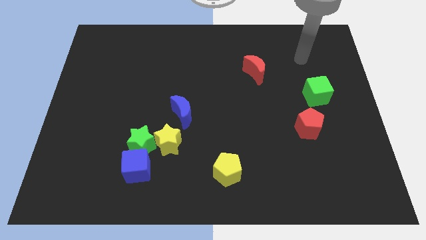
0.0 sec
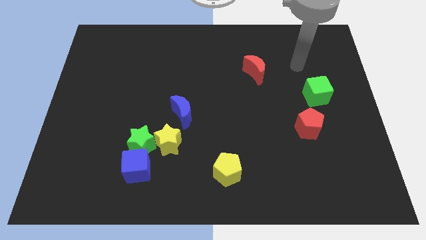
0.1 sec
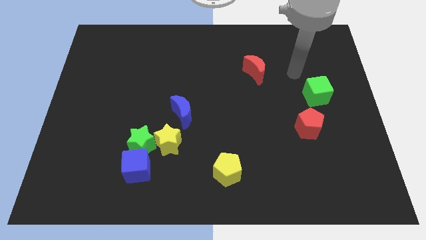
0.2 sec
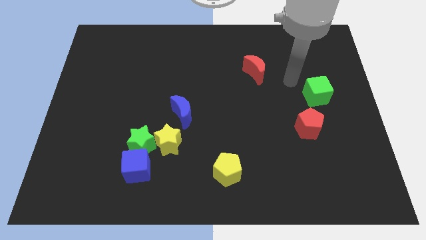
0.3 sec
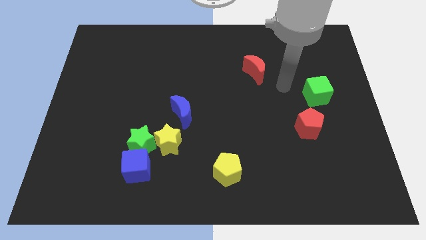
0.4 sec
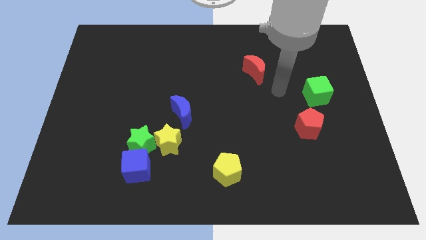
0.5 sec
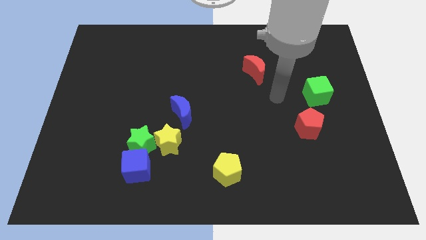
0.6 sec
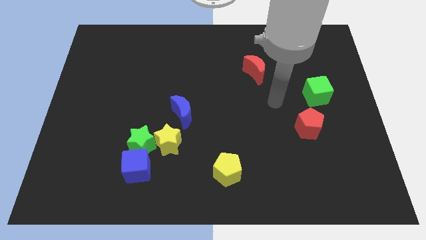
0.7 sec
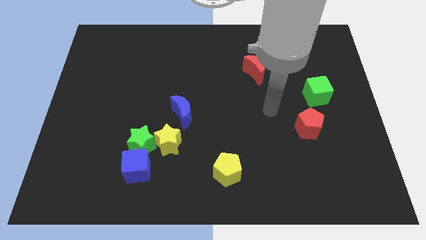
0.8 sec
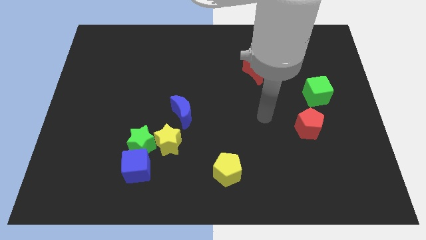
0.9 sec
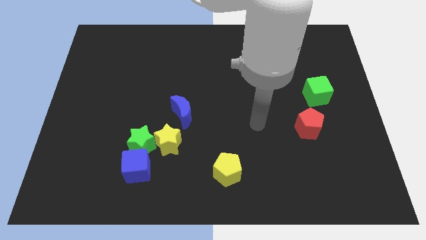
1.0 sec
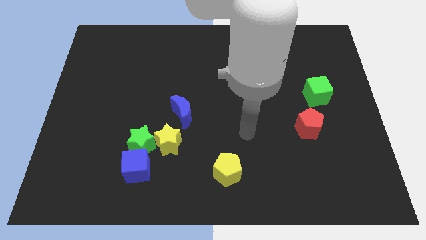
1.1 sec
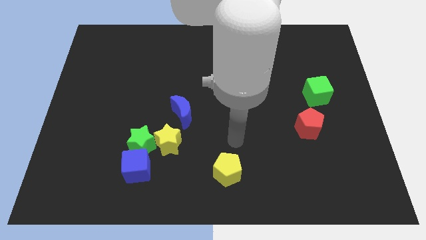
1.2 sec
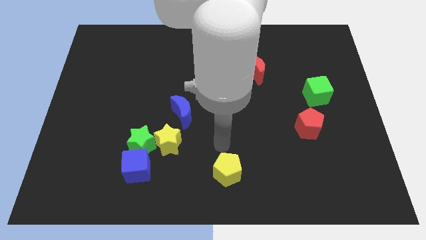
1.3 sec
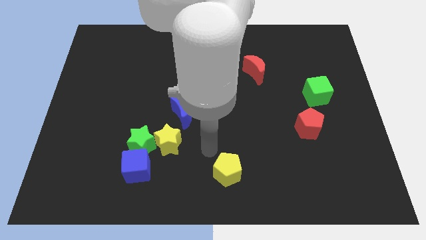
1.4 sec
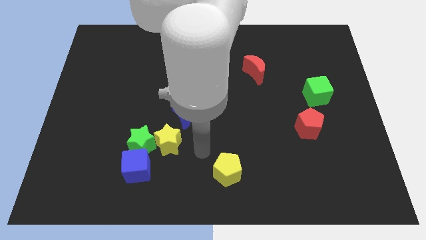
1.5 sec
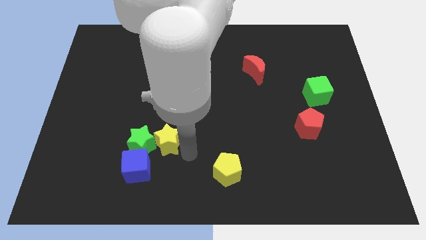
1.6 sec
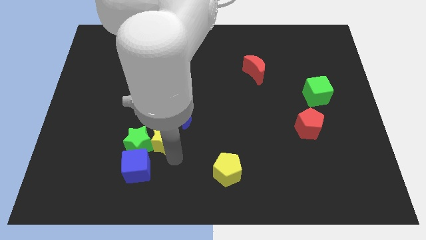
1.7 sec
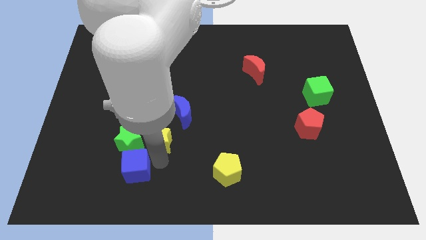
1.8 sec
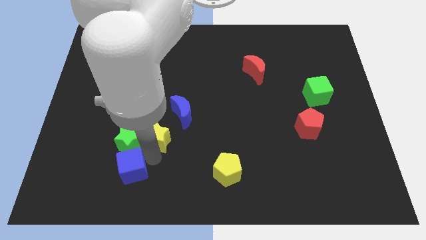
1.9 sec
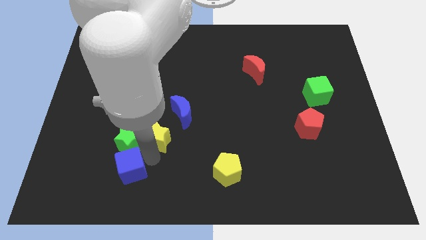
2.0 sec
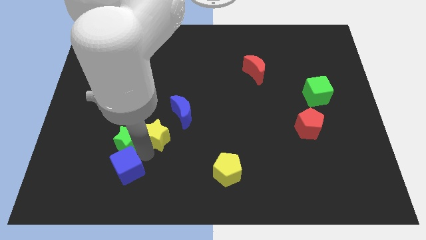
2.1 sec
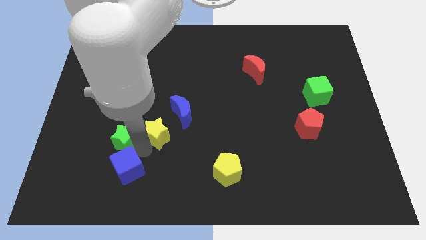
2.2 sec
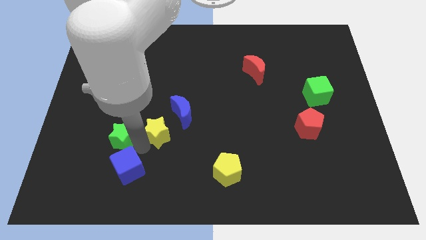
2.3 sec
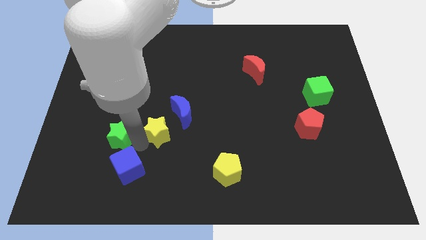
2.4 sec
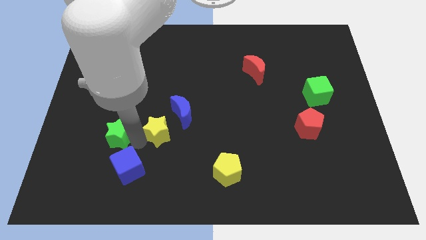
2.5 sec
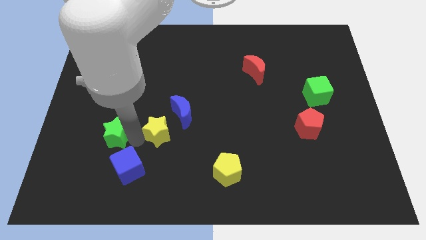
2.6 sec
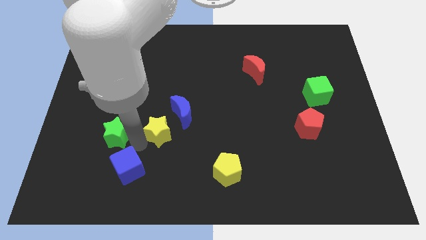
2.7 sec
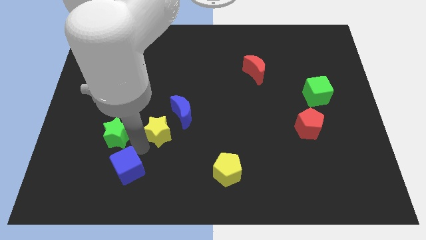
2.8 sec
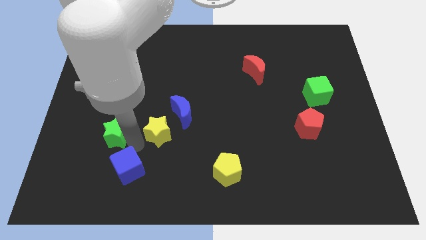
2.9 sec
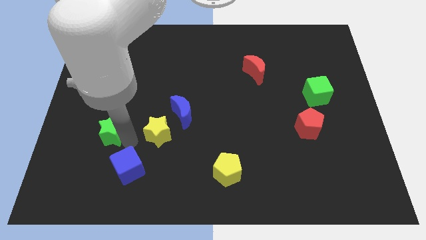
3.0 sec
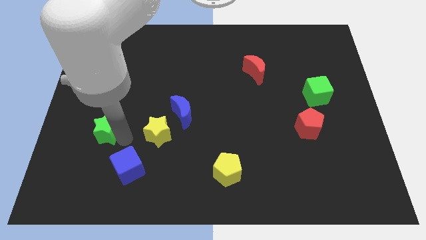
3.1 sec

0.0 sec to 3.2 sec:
pull the green star apart from the yellow star and blue cube

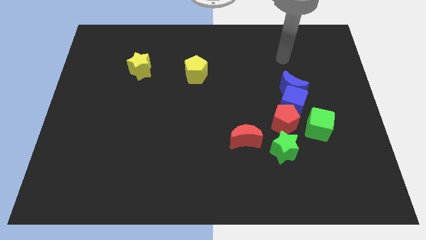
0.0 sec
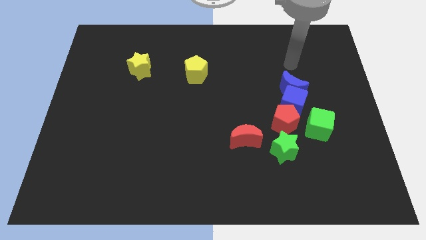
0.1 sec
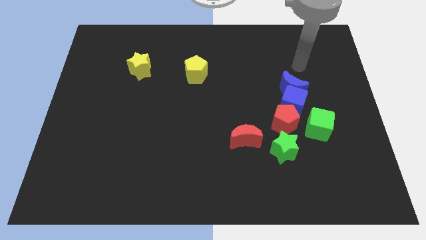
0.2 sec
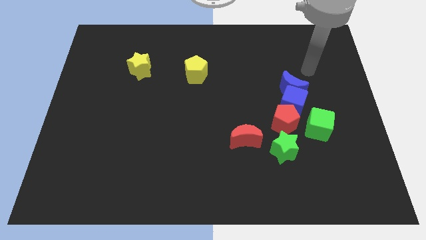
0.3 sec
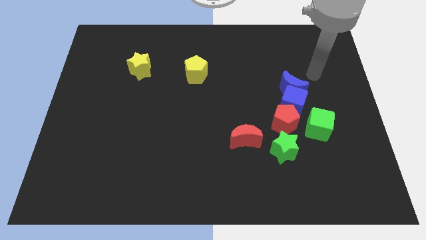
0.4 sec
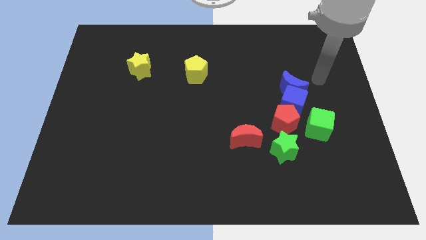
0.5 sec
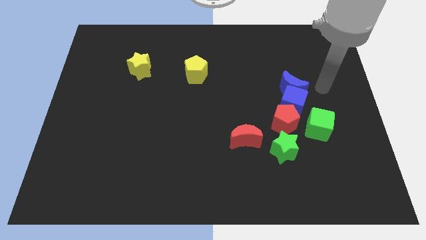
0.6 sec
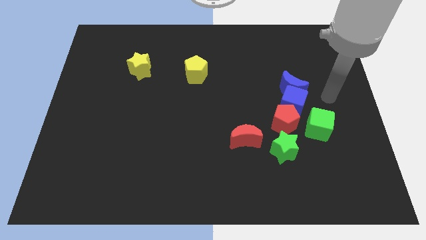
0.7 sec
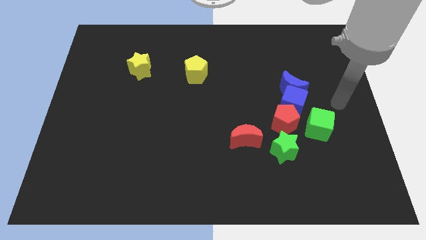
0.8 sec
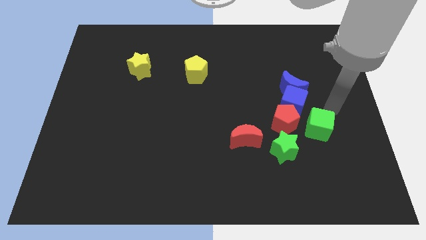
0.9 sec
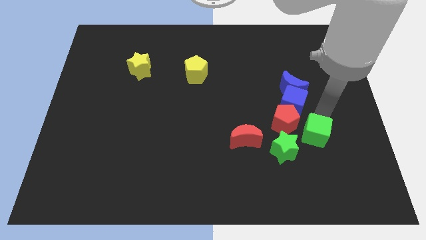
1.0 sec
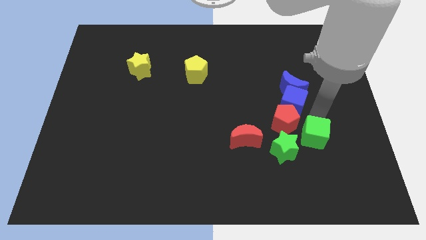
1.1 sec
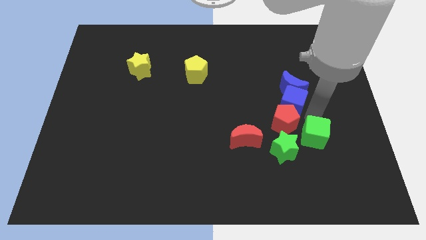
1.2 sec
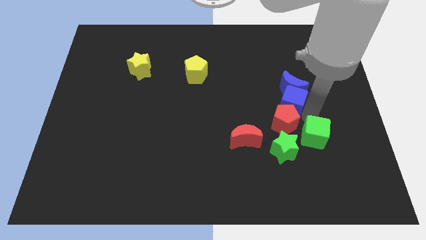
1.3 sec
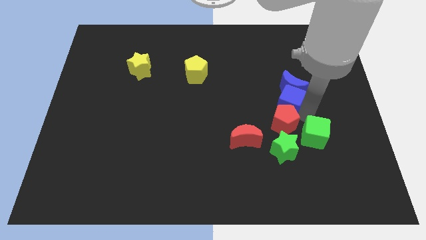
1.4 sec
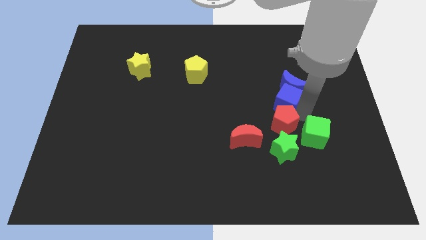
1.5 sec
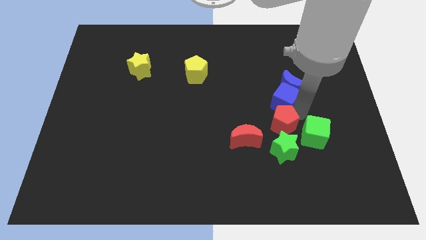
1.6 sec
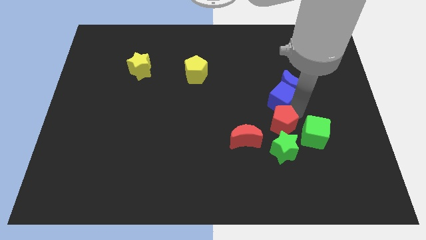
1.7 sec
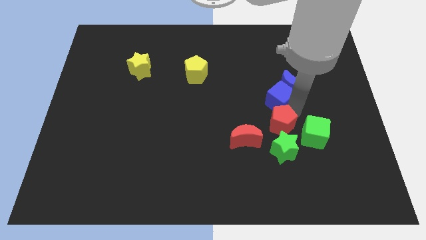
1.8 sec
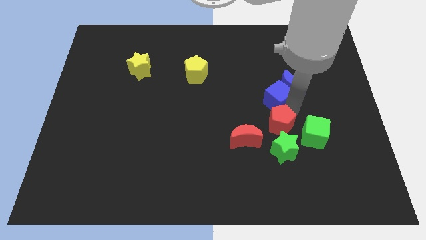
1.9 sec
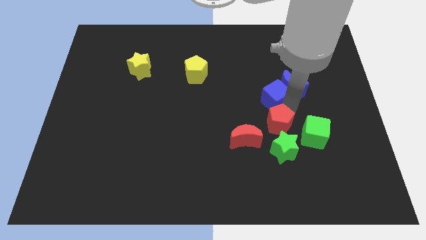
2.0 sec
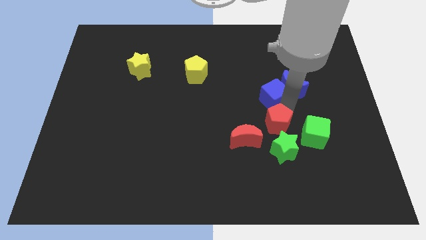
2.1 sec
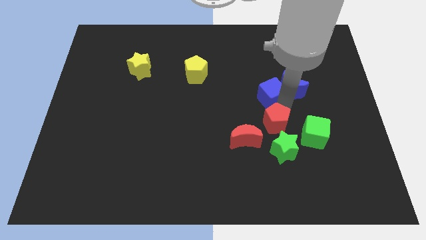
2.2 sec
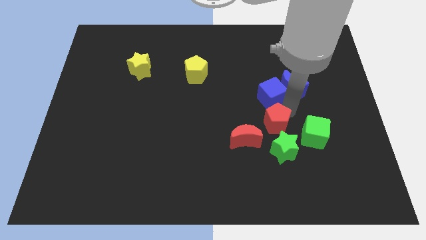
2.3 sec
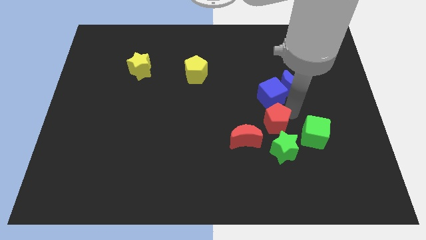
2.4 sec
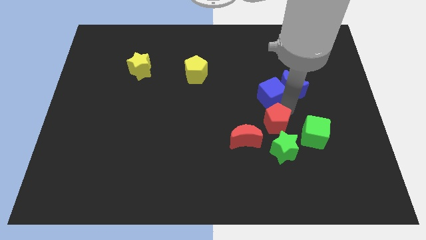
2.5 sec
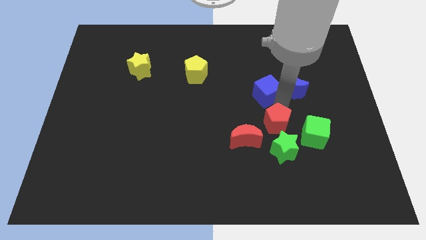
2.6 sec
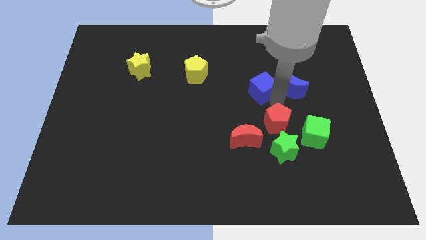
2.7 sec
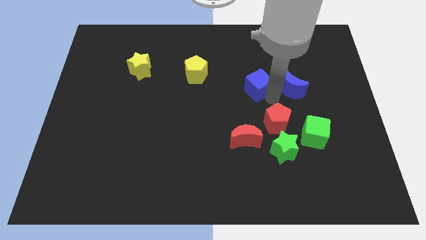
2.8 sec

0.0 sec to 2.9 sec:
separate the blue cube from the group of blocks

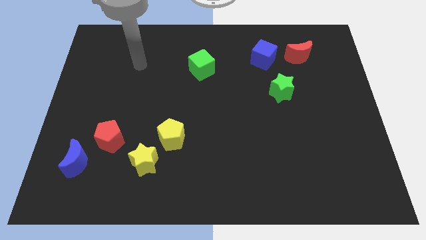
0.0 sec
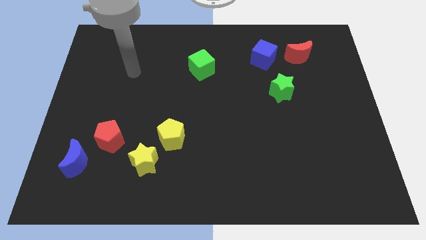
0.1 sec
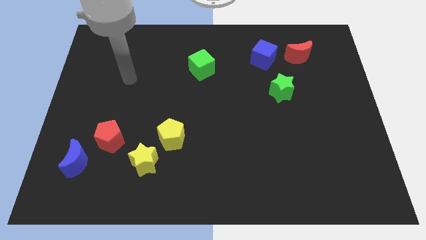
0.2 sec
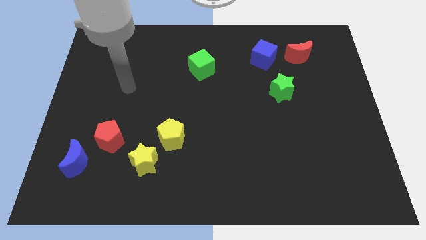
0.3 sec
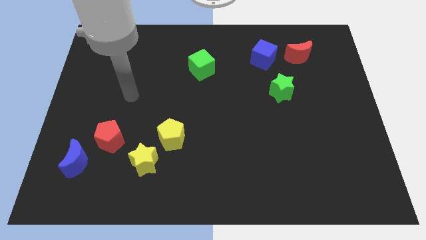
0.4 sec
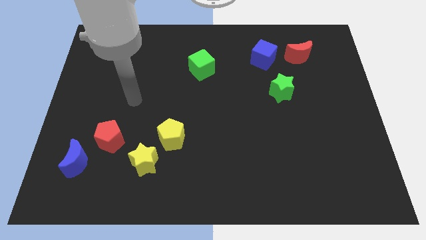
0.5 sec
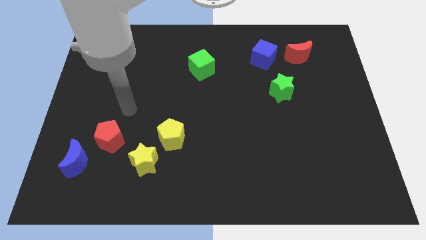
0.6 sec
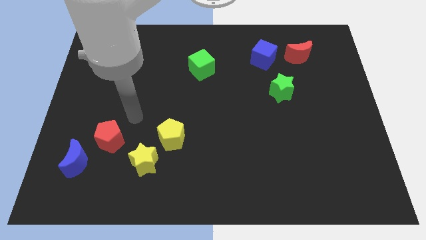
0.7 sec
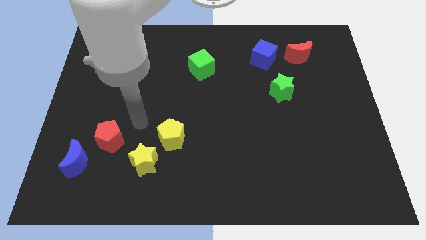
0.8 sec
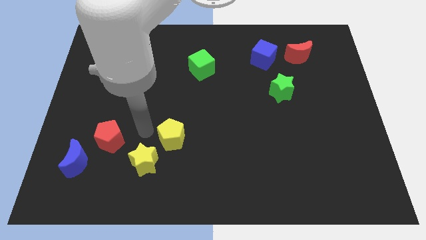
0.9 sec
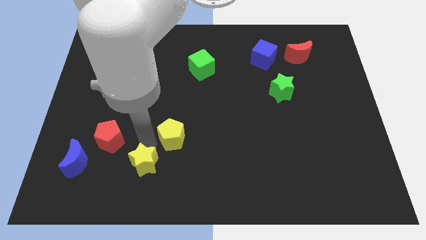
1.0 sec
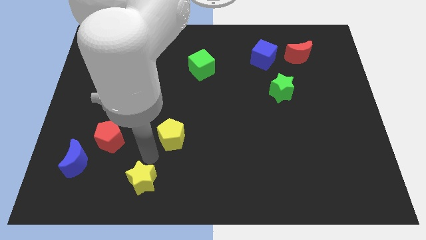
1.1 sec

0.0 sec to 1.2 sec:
pull the yellow pentagon apart from the yellow star

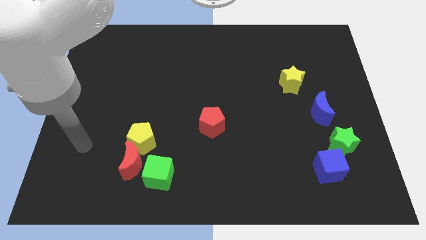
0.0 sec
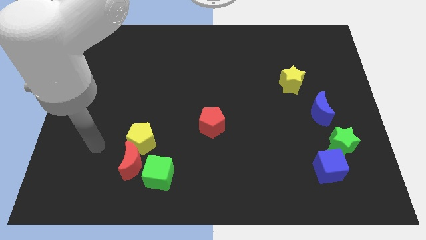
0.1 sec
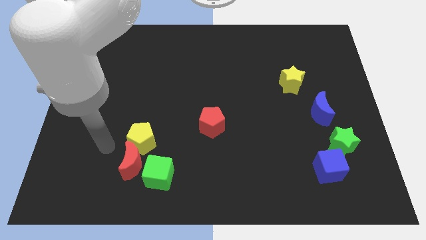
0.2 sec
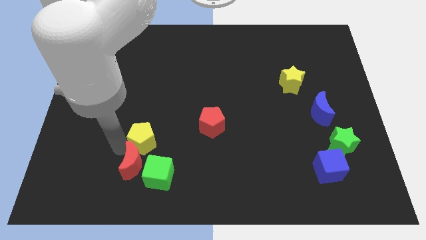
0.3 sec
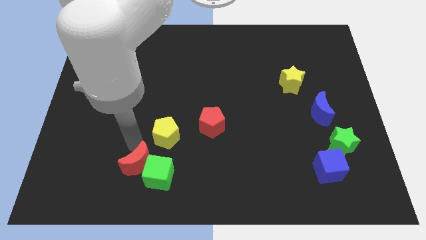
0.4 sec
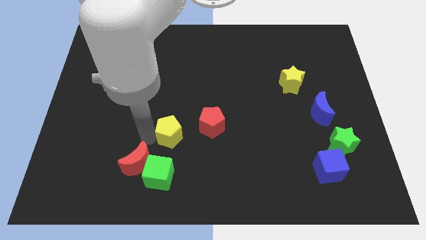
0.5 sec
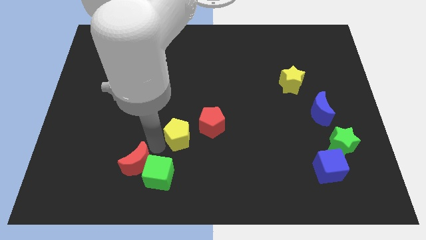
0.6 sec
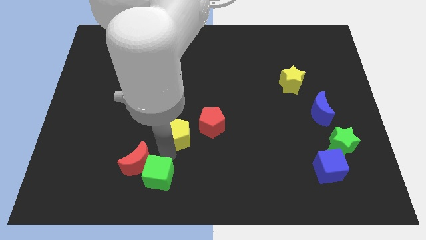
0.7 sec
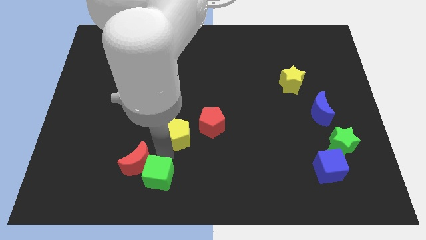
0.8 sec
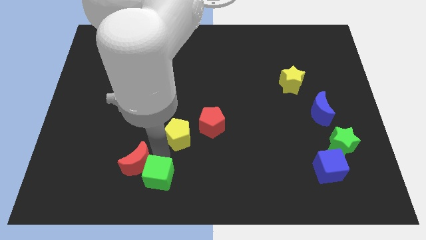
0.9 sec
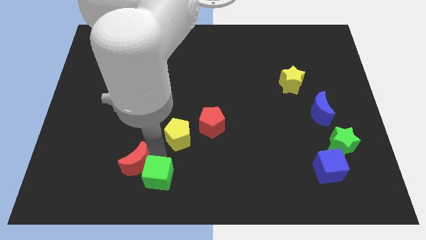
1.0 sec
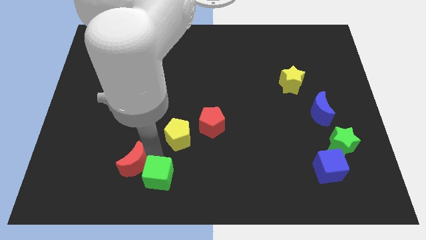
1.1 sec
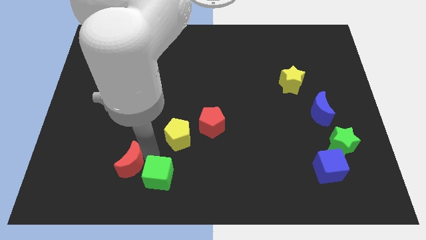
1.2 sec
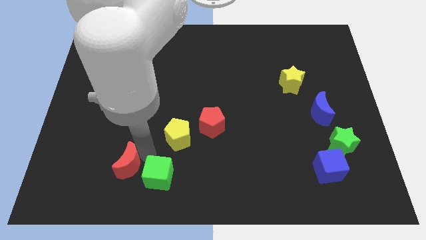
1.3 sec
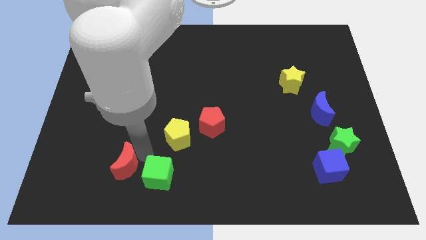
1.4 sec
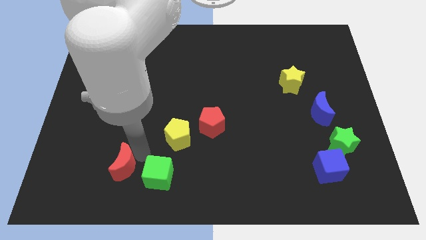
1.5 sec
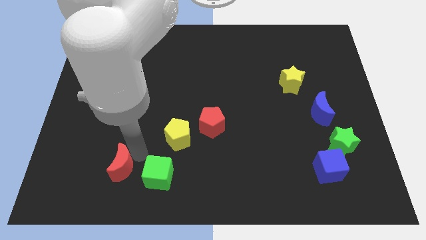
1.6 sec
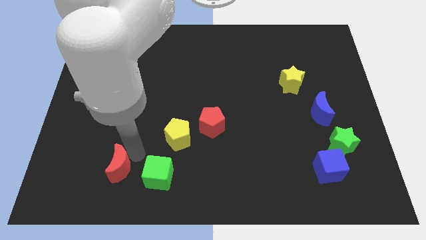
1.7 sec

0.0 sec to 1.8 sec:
separate the red moon from the yellow pentagon and green cube

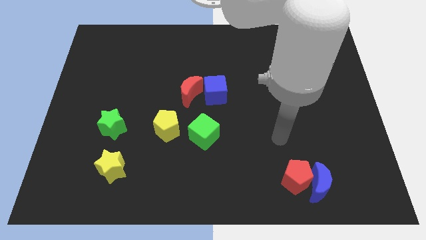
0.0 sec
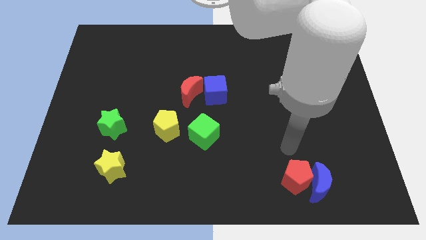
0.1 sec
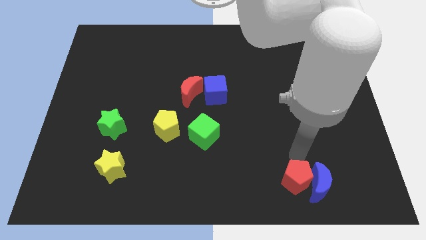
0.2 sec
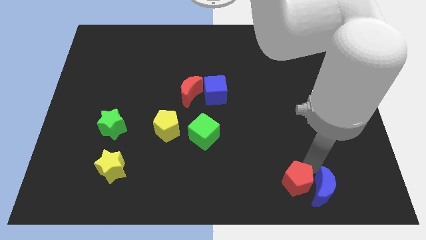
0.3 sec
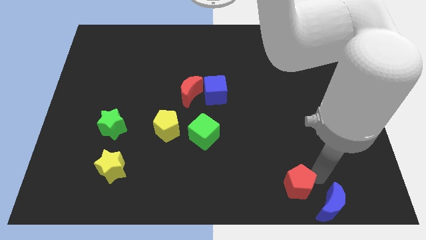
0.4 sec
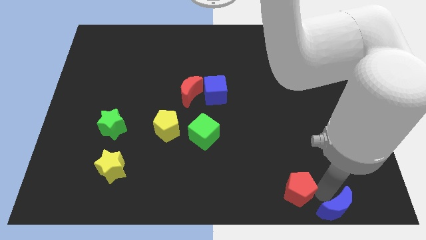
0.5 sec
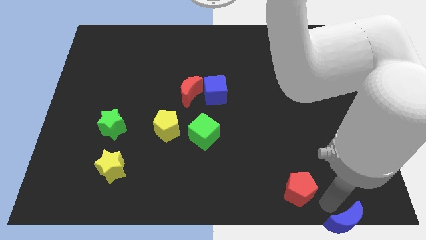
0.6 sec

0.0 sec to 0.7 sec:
move the red pentagon away from the blue moon
